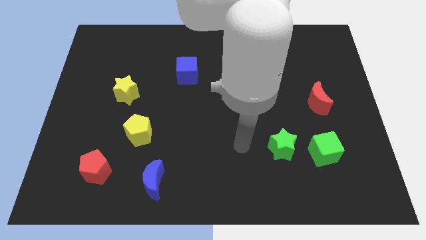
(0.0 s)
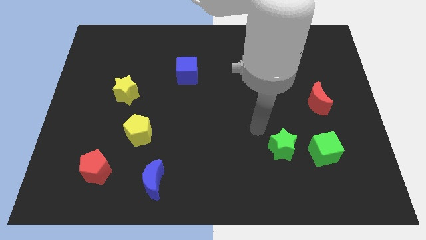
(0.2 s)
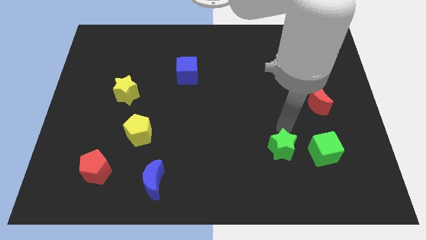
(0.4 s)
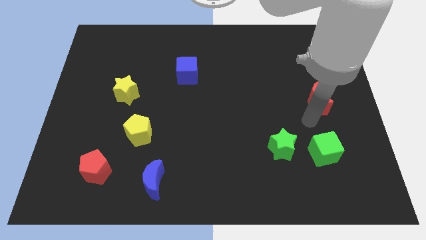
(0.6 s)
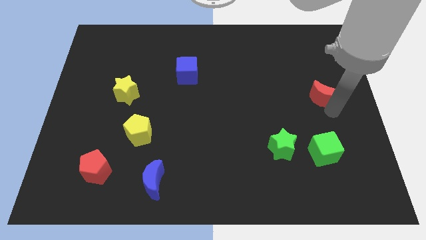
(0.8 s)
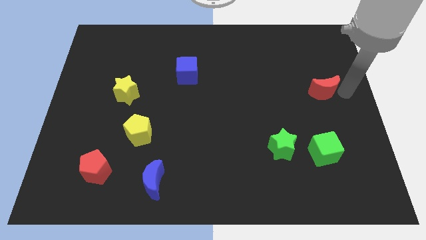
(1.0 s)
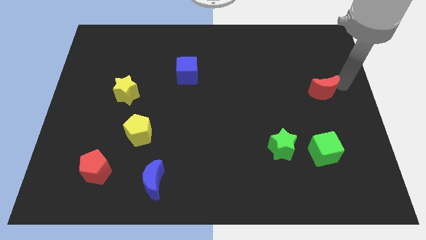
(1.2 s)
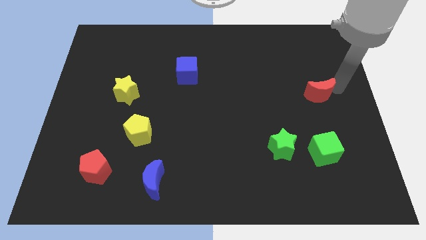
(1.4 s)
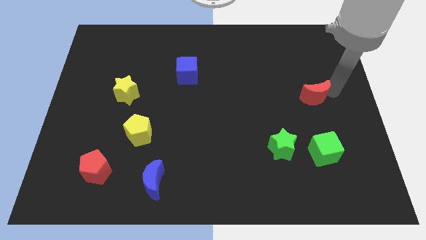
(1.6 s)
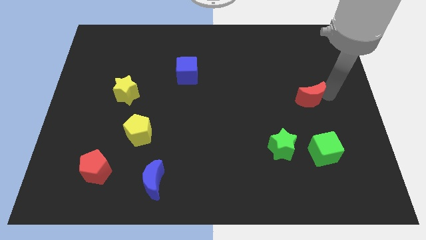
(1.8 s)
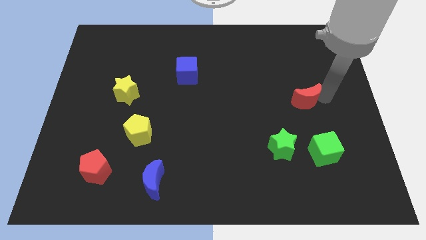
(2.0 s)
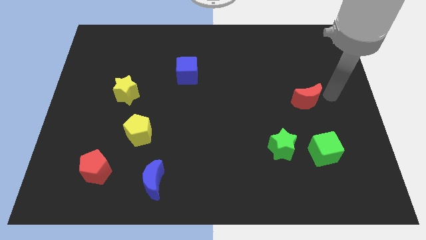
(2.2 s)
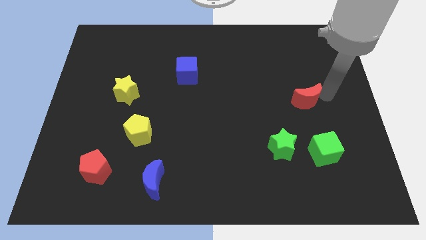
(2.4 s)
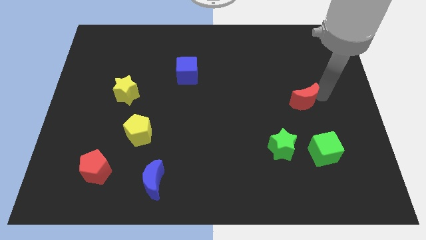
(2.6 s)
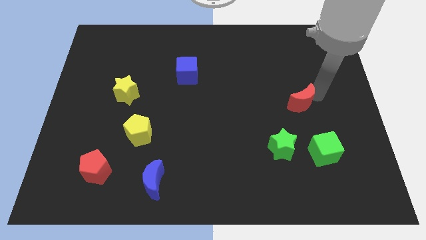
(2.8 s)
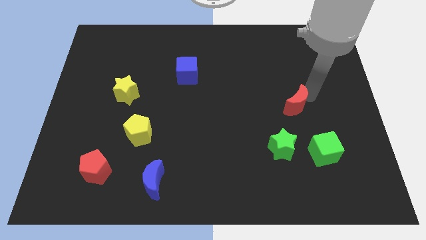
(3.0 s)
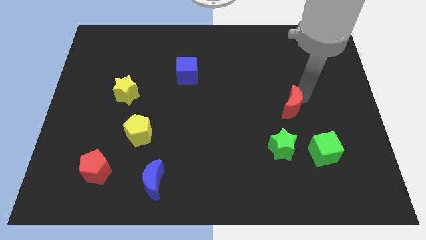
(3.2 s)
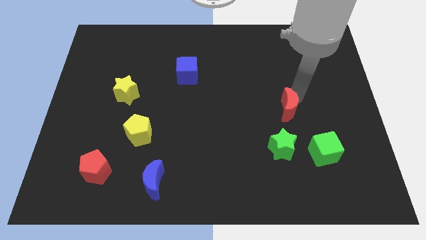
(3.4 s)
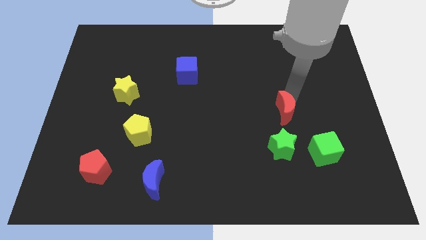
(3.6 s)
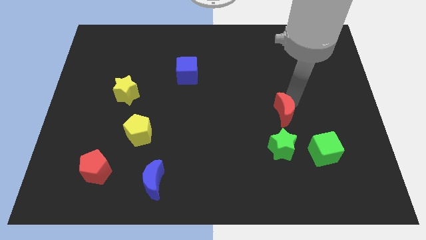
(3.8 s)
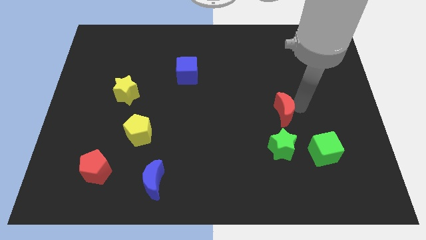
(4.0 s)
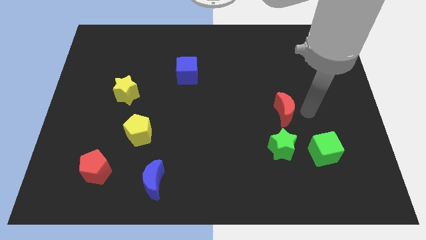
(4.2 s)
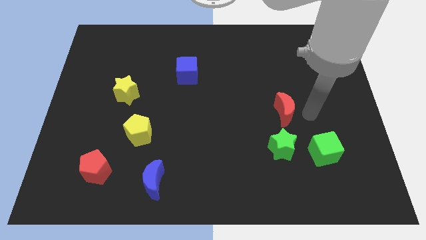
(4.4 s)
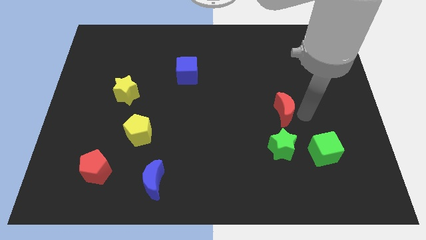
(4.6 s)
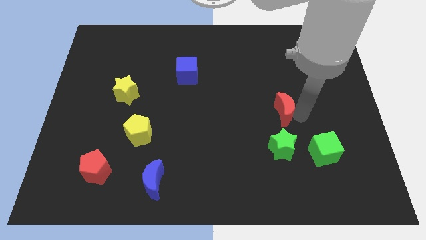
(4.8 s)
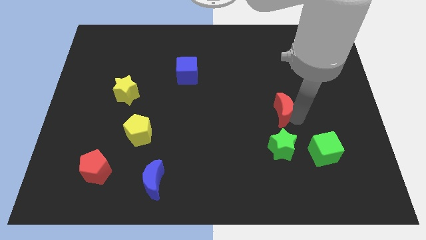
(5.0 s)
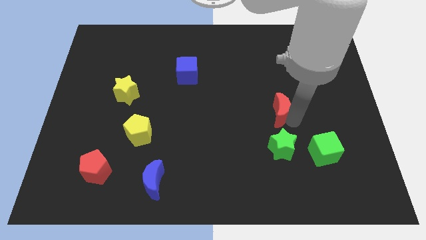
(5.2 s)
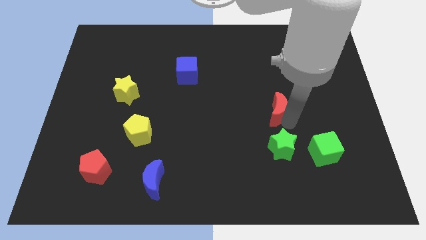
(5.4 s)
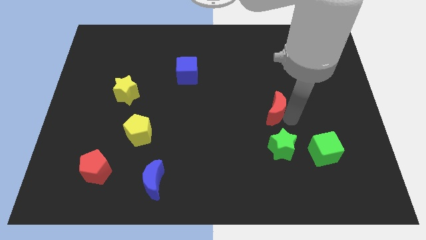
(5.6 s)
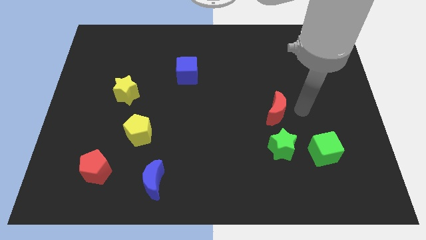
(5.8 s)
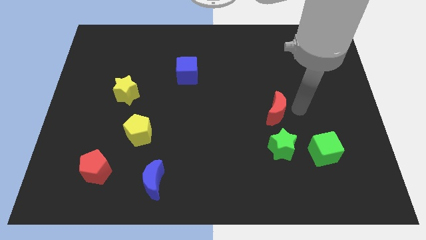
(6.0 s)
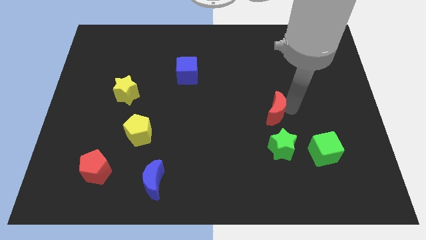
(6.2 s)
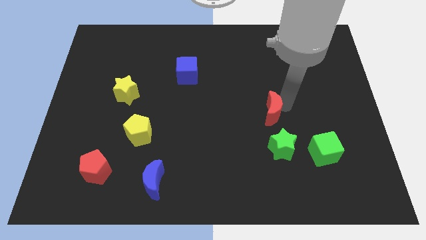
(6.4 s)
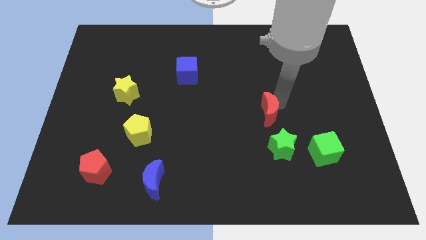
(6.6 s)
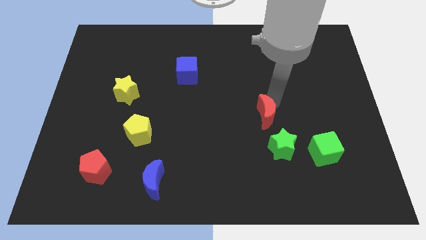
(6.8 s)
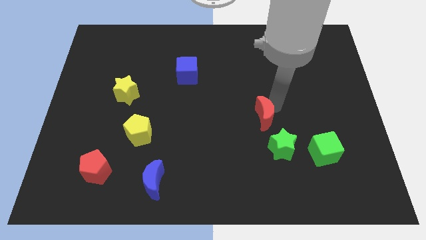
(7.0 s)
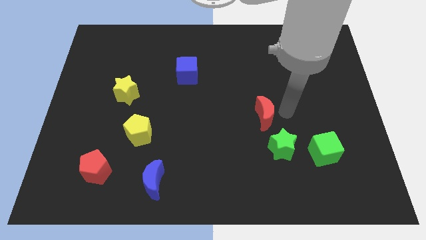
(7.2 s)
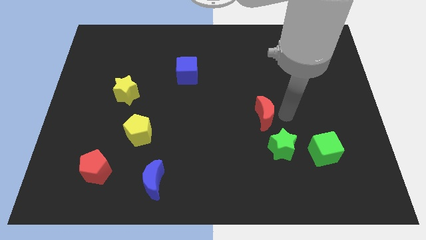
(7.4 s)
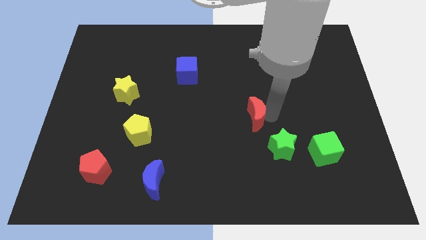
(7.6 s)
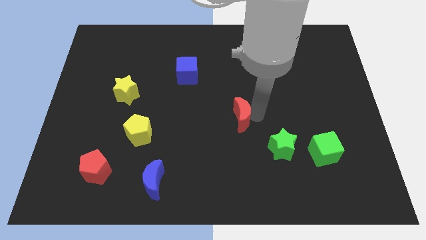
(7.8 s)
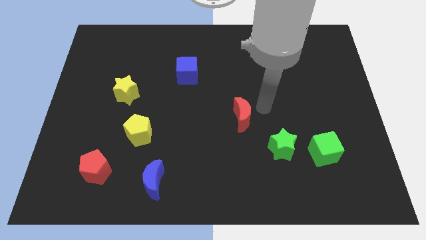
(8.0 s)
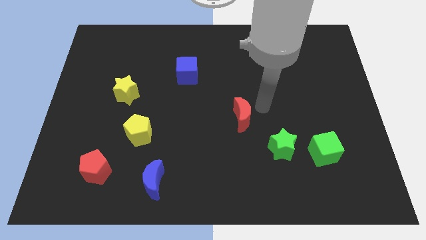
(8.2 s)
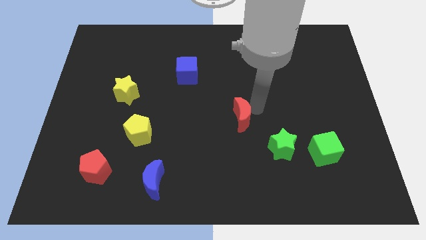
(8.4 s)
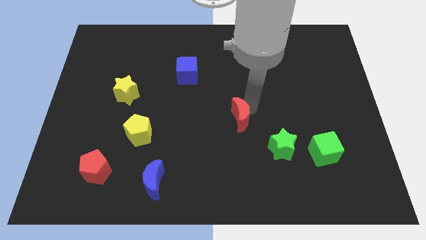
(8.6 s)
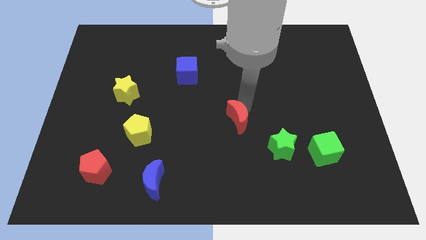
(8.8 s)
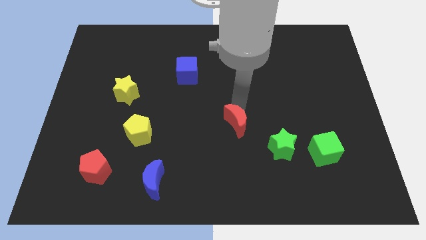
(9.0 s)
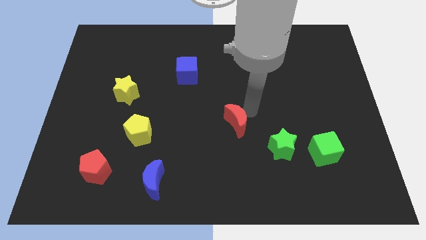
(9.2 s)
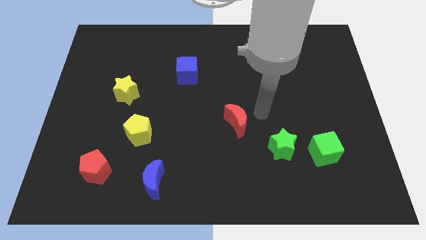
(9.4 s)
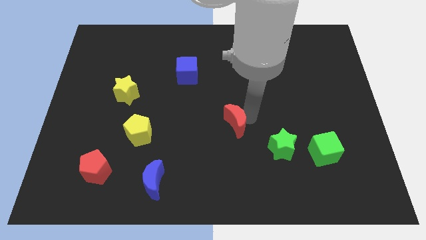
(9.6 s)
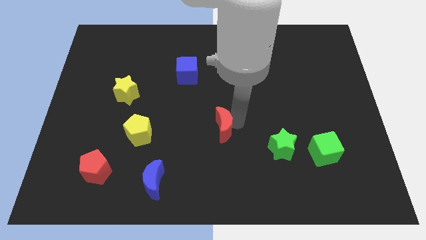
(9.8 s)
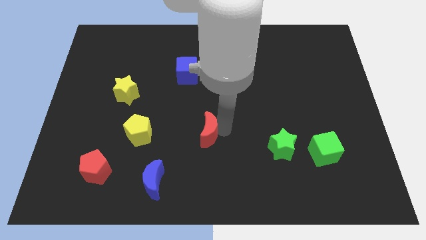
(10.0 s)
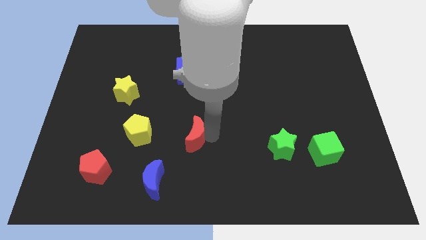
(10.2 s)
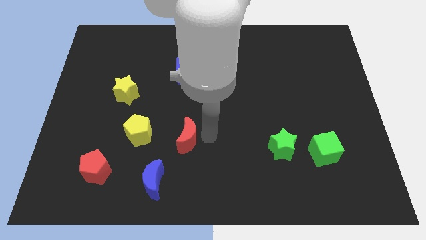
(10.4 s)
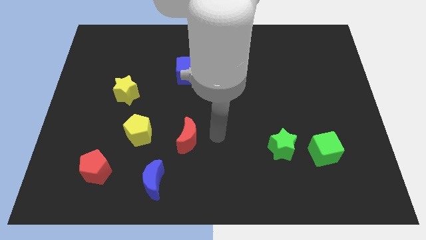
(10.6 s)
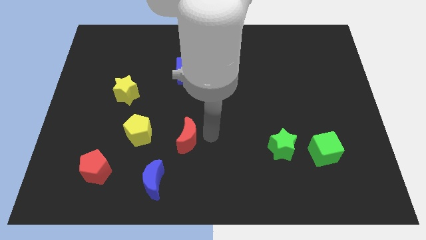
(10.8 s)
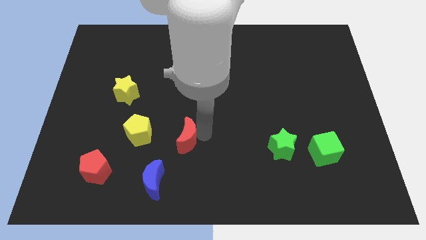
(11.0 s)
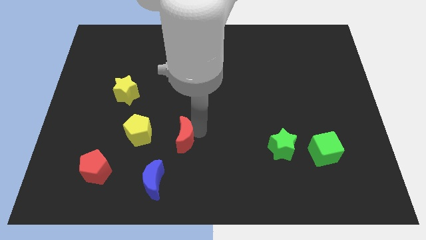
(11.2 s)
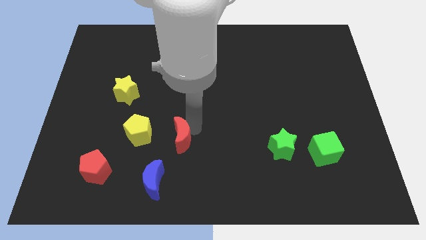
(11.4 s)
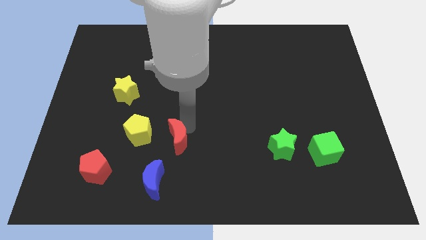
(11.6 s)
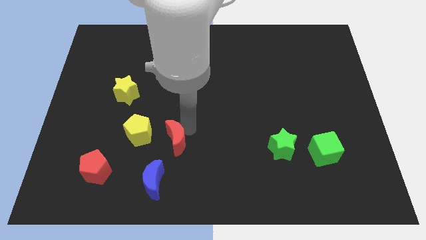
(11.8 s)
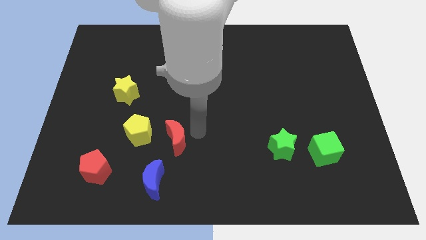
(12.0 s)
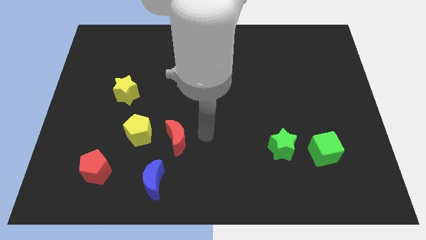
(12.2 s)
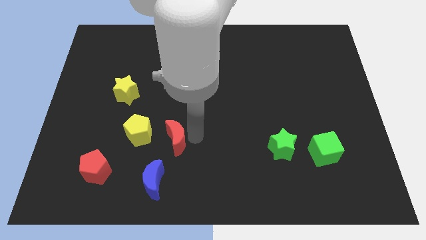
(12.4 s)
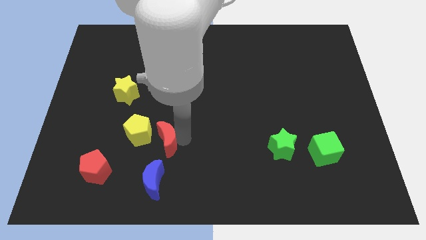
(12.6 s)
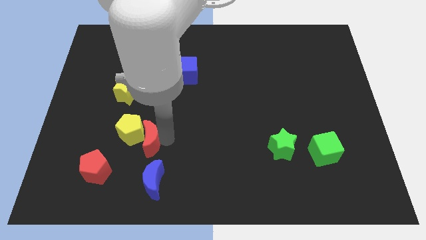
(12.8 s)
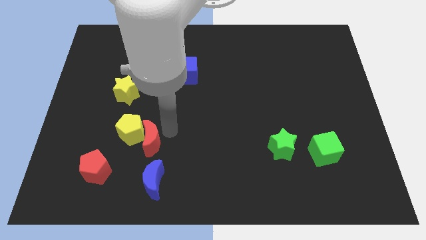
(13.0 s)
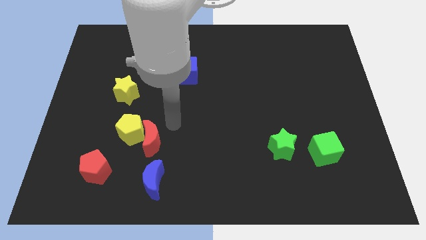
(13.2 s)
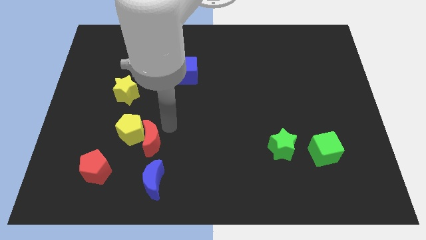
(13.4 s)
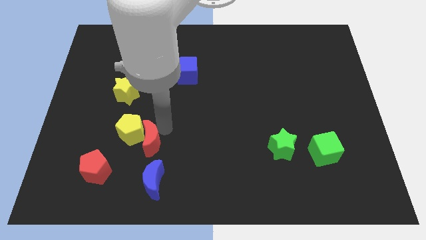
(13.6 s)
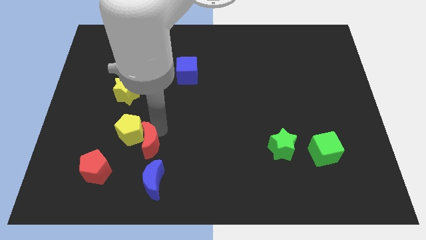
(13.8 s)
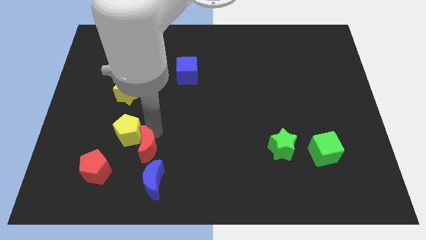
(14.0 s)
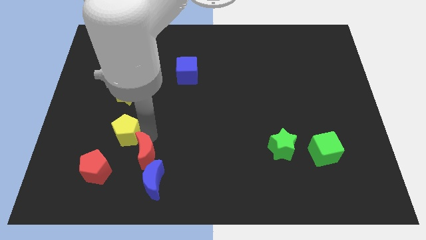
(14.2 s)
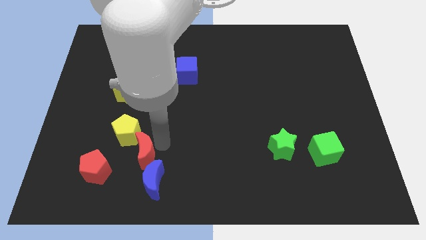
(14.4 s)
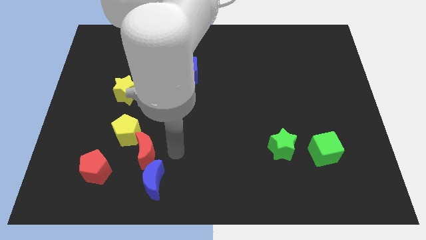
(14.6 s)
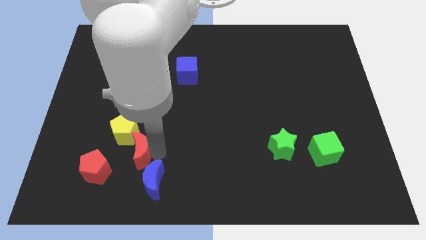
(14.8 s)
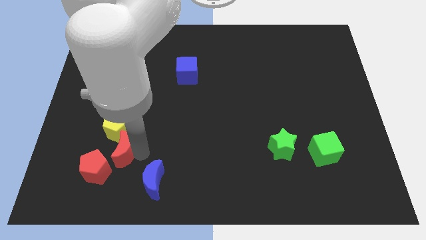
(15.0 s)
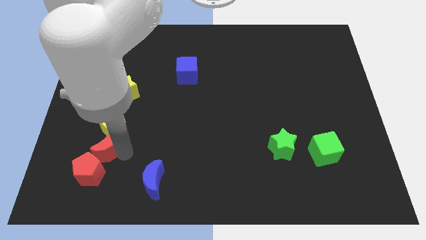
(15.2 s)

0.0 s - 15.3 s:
put the red moon to the bottom left side of the yellow pentagon
